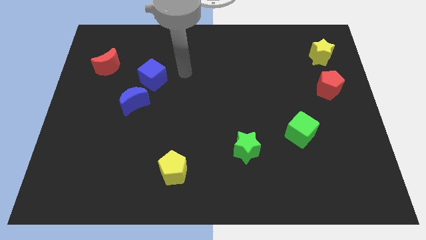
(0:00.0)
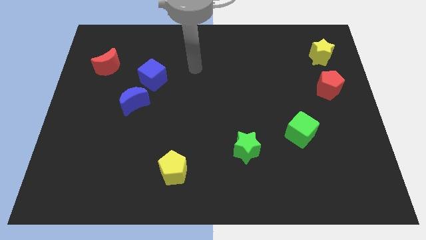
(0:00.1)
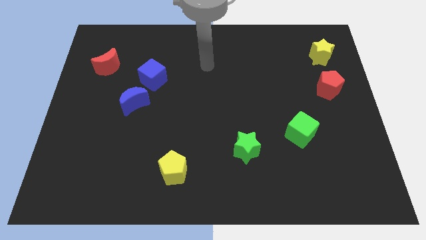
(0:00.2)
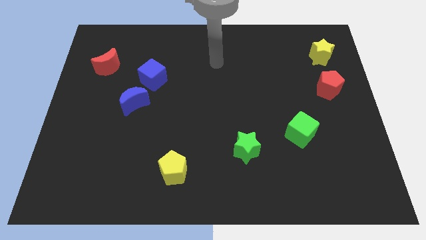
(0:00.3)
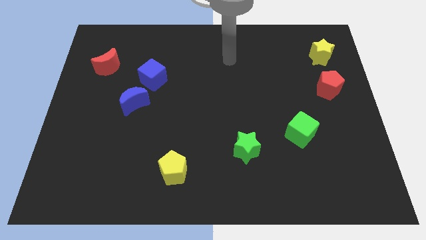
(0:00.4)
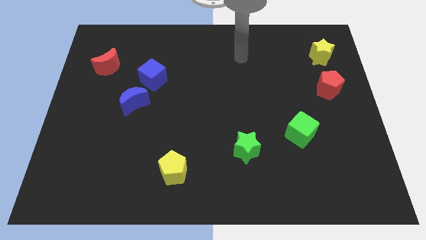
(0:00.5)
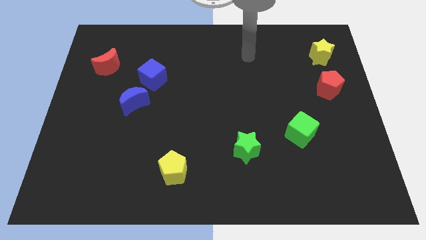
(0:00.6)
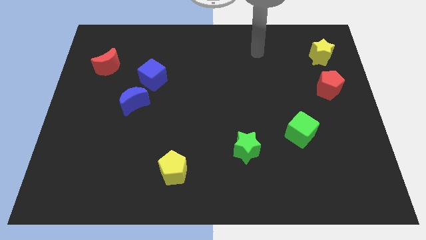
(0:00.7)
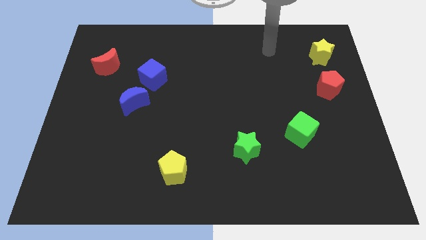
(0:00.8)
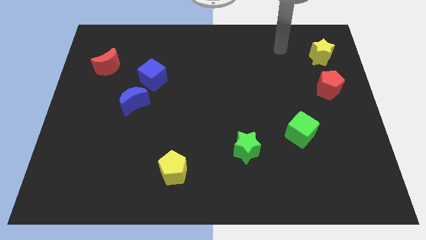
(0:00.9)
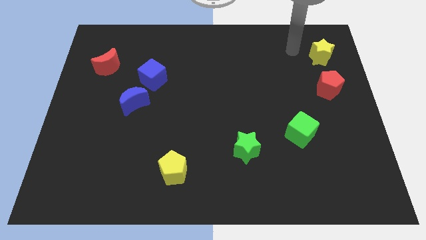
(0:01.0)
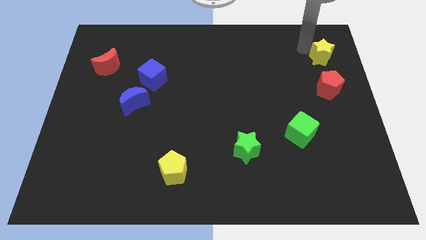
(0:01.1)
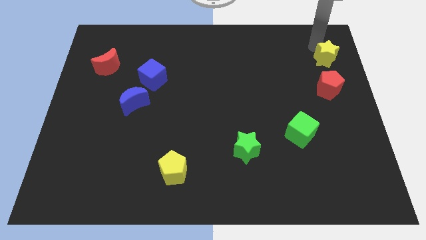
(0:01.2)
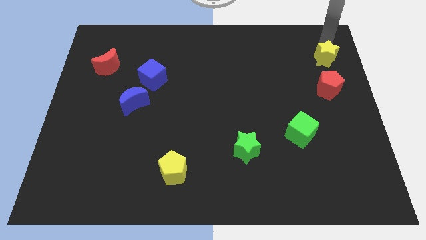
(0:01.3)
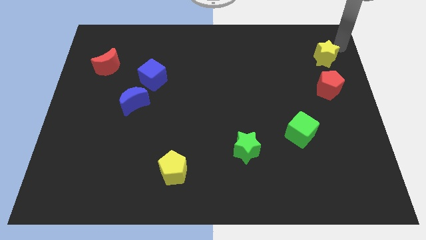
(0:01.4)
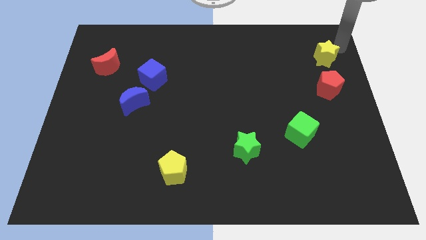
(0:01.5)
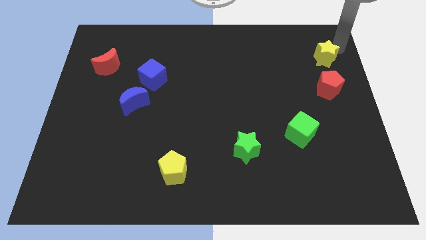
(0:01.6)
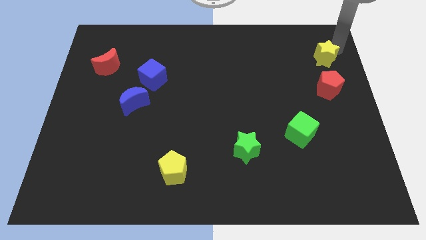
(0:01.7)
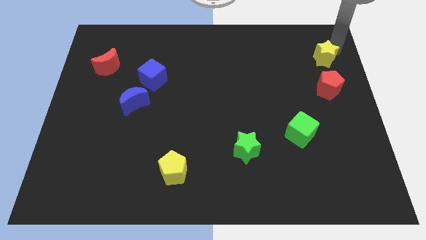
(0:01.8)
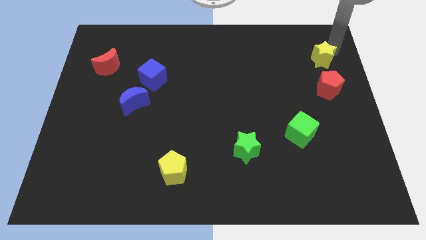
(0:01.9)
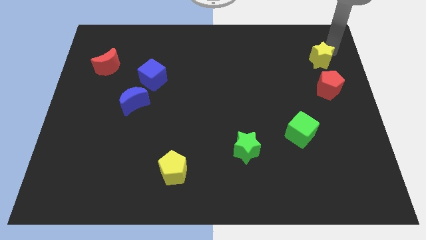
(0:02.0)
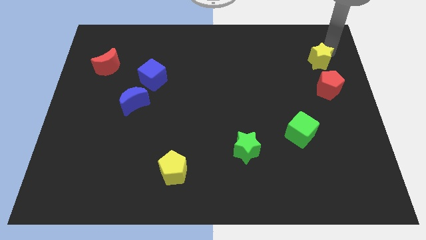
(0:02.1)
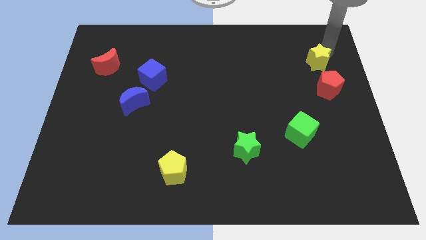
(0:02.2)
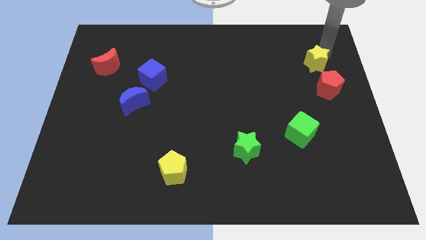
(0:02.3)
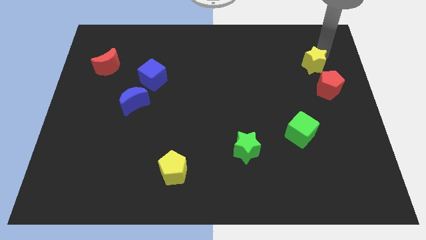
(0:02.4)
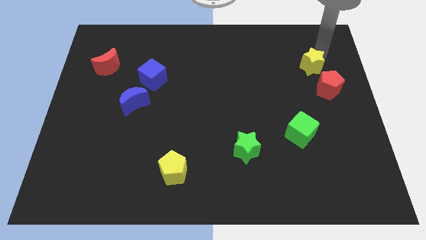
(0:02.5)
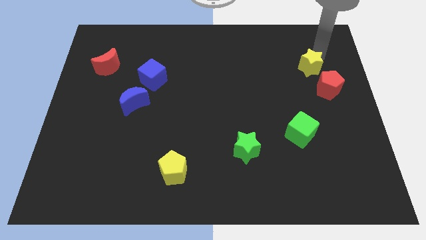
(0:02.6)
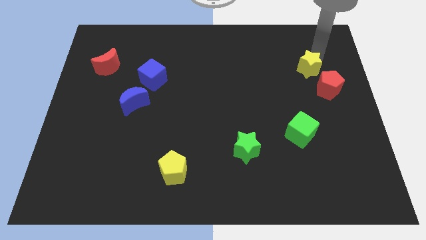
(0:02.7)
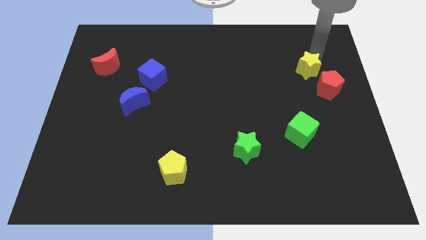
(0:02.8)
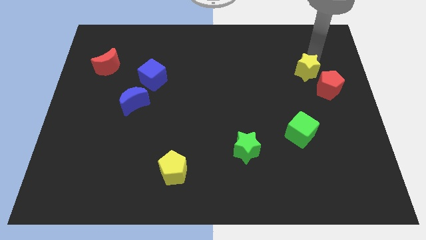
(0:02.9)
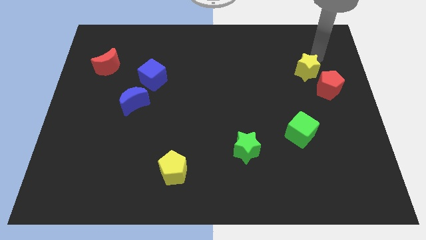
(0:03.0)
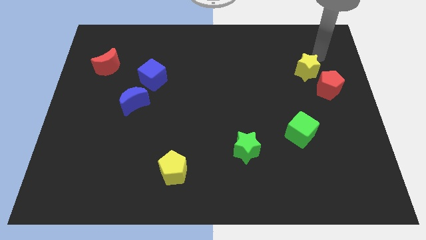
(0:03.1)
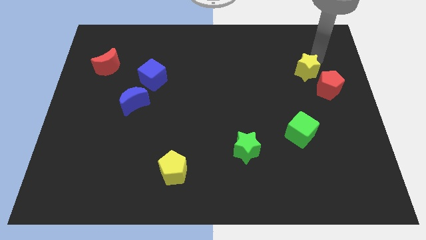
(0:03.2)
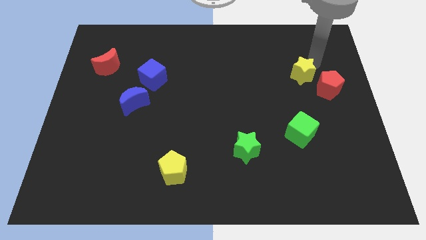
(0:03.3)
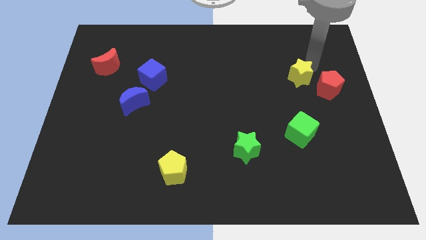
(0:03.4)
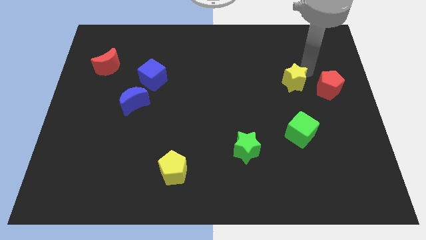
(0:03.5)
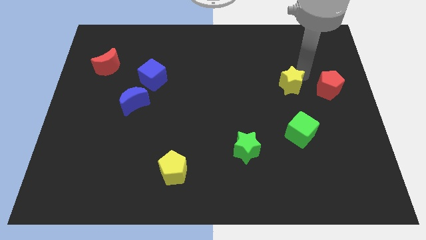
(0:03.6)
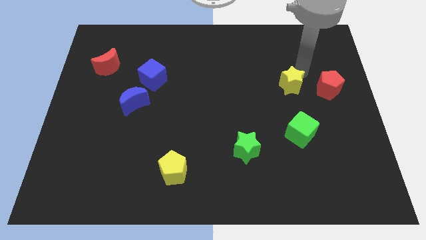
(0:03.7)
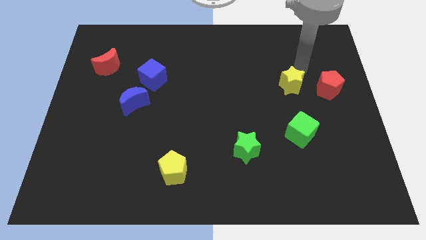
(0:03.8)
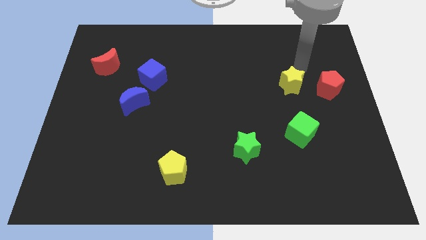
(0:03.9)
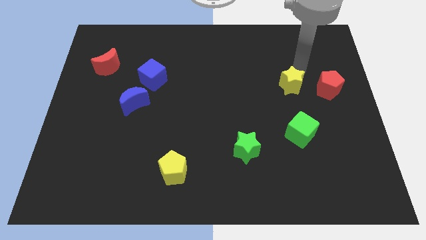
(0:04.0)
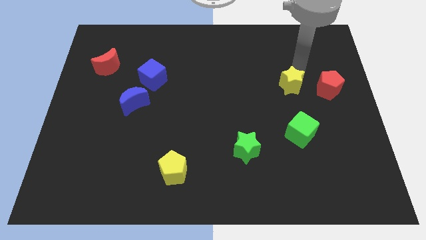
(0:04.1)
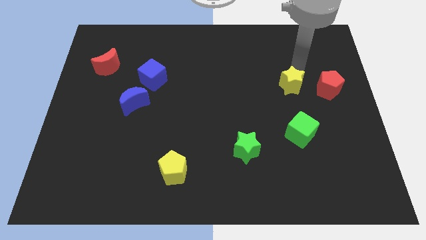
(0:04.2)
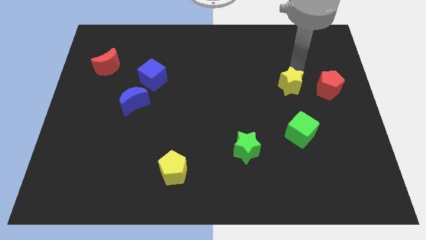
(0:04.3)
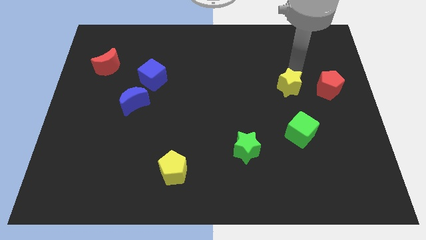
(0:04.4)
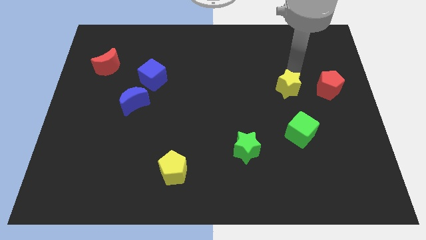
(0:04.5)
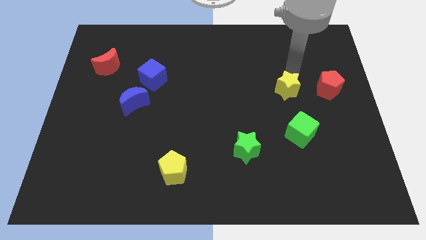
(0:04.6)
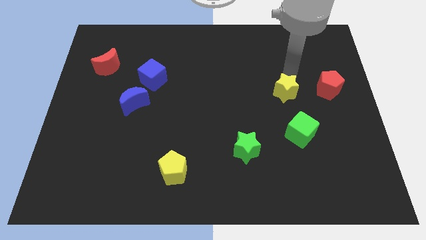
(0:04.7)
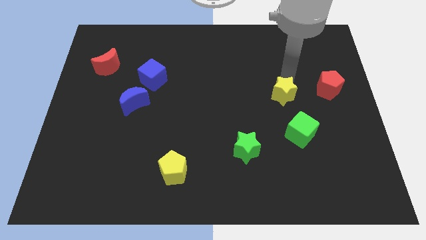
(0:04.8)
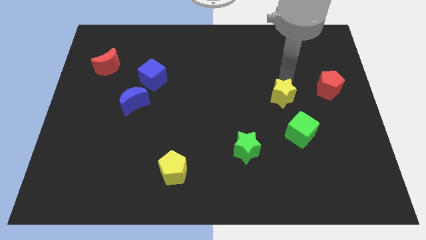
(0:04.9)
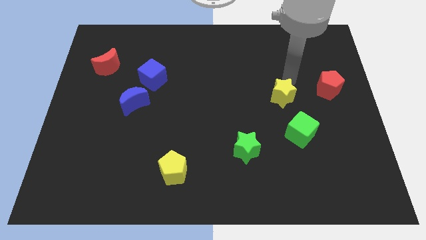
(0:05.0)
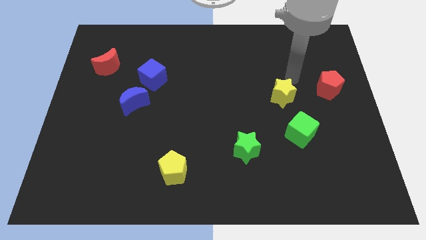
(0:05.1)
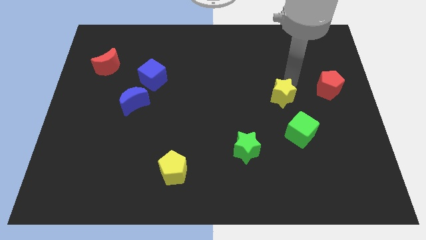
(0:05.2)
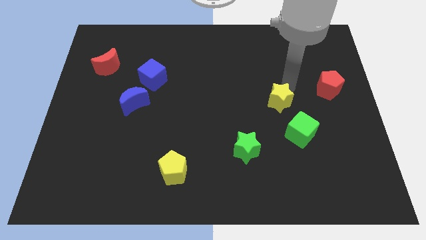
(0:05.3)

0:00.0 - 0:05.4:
put the yellow star diagonally up and to the left of the green cube

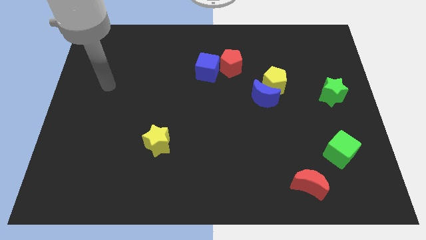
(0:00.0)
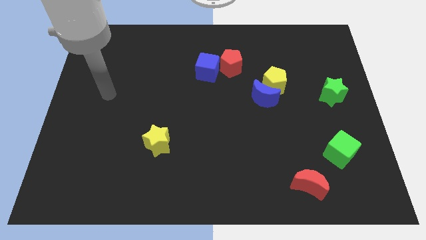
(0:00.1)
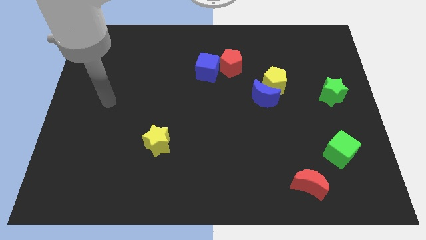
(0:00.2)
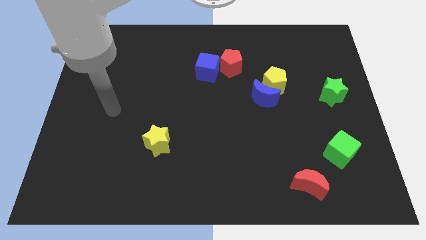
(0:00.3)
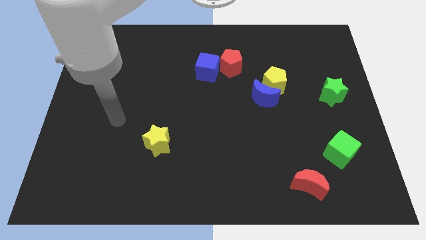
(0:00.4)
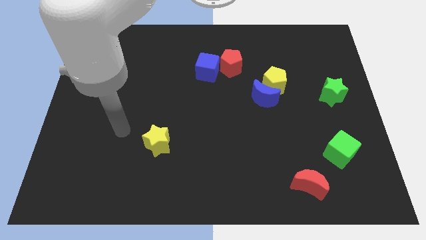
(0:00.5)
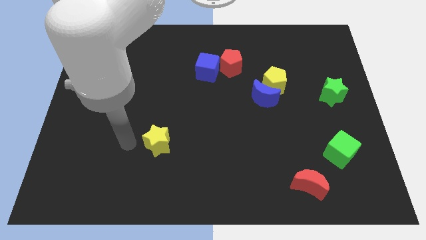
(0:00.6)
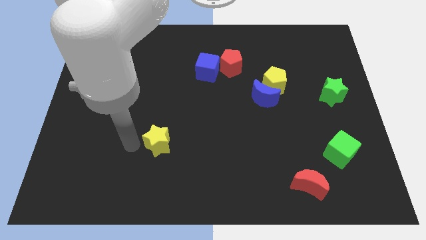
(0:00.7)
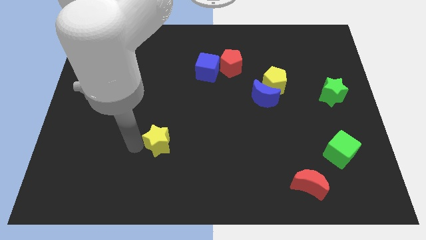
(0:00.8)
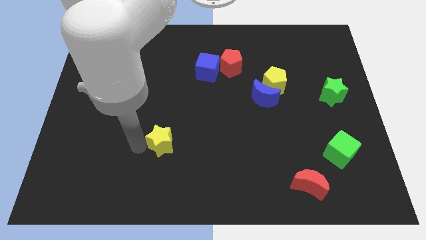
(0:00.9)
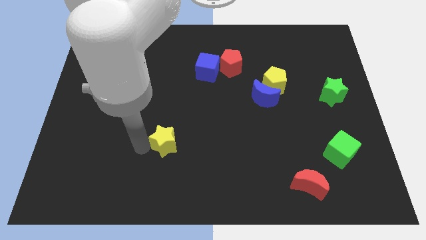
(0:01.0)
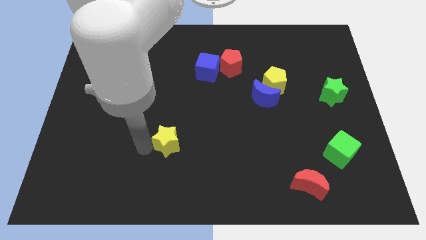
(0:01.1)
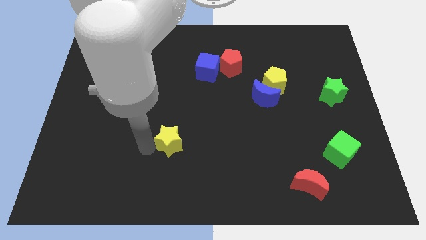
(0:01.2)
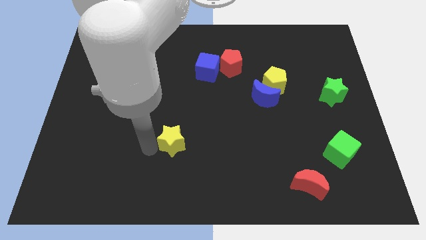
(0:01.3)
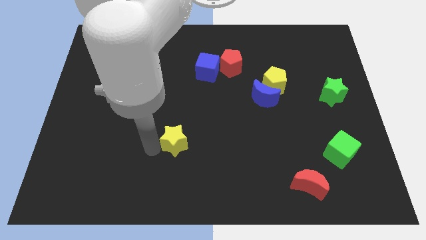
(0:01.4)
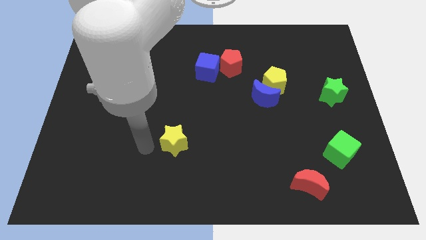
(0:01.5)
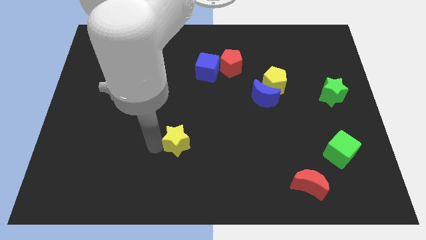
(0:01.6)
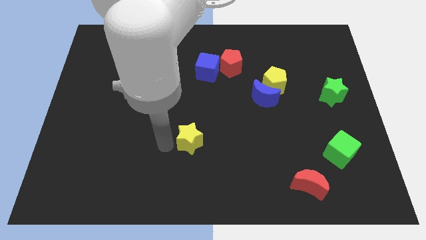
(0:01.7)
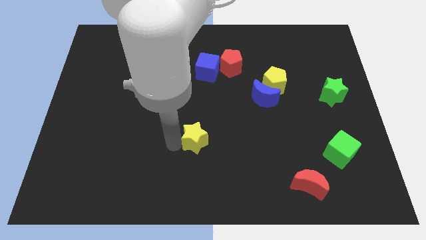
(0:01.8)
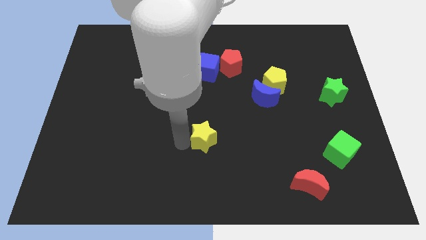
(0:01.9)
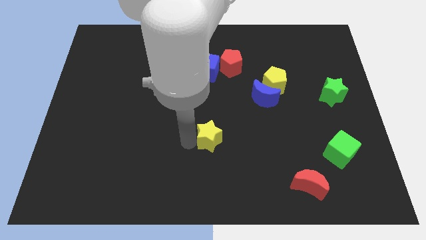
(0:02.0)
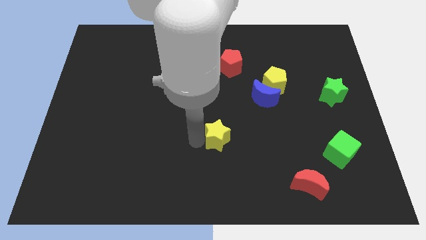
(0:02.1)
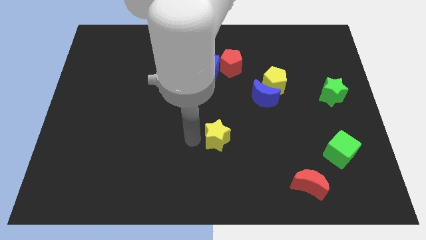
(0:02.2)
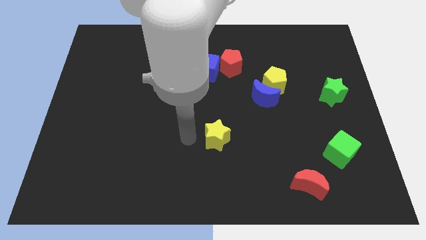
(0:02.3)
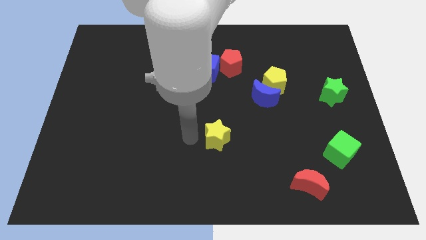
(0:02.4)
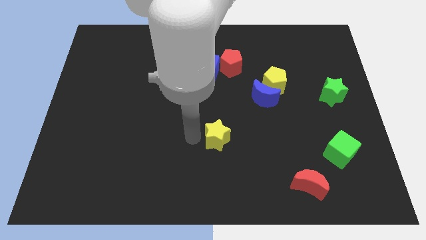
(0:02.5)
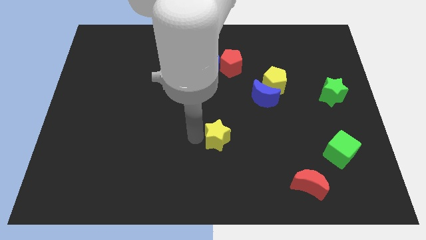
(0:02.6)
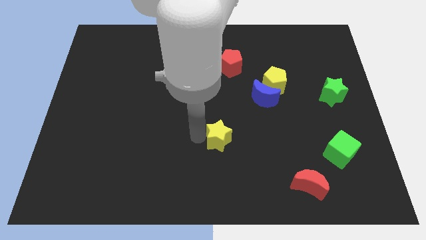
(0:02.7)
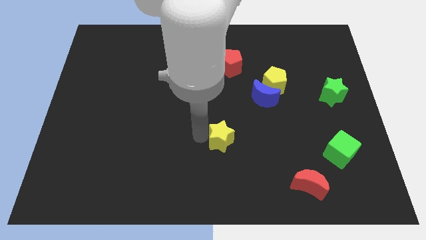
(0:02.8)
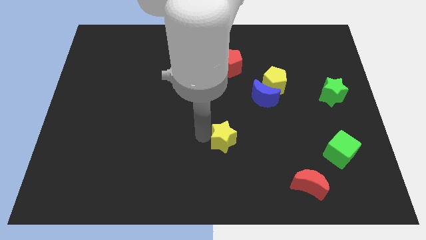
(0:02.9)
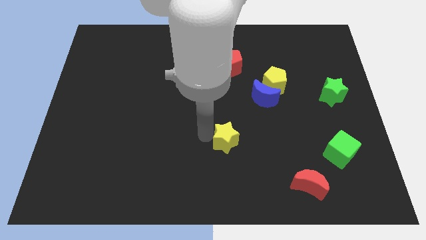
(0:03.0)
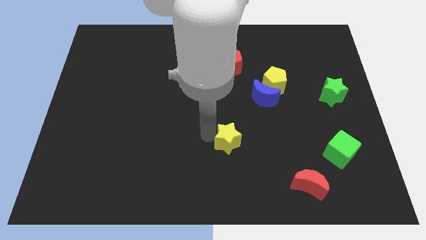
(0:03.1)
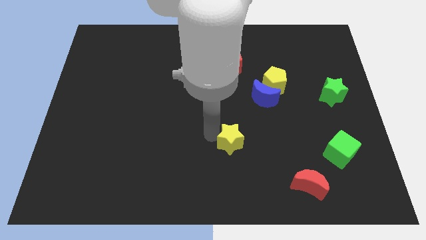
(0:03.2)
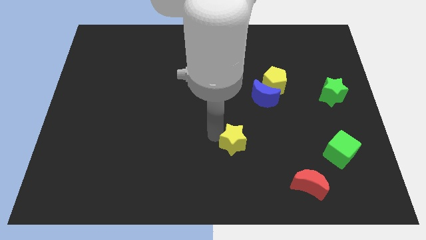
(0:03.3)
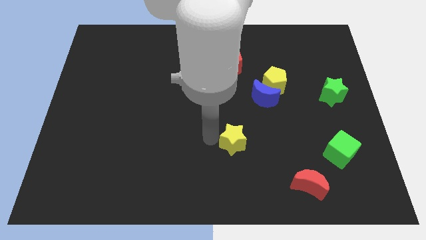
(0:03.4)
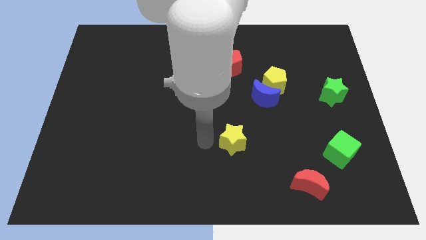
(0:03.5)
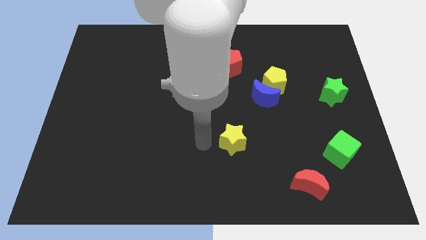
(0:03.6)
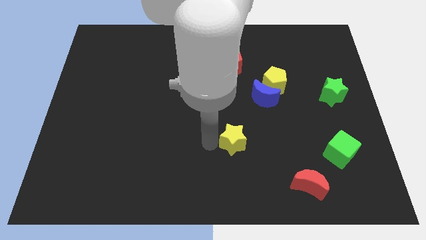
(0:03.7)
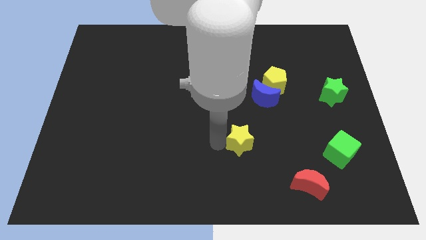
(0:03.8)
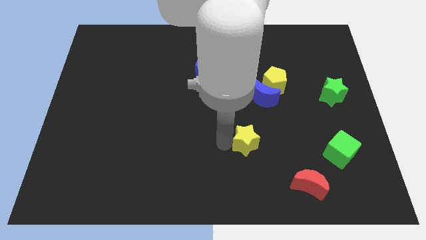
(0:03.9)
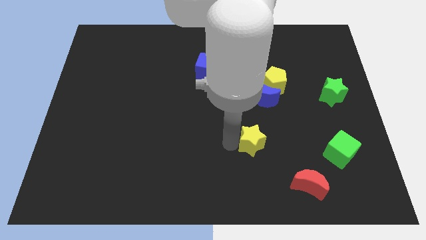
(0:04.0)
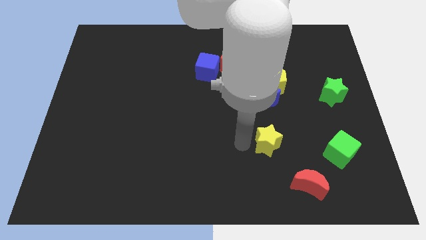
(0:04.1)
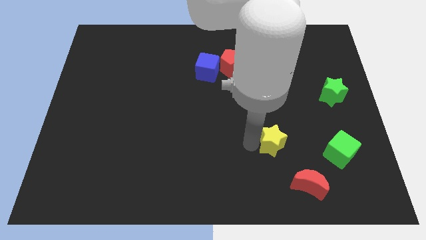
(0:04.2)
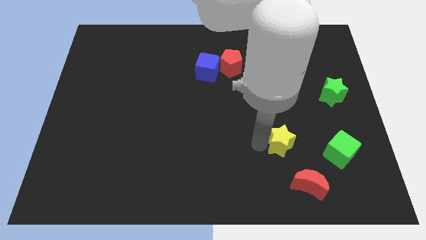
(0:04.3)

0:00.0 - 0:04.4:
push the yellow star above the red moon
